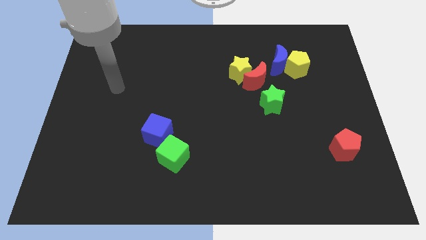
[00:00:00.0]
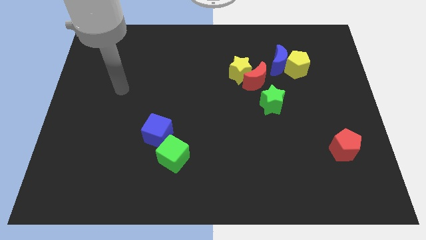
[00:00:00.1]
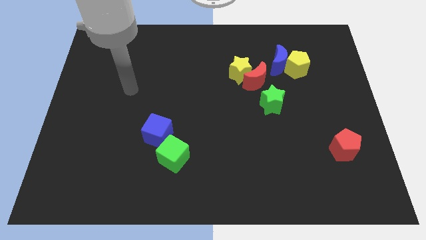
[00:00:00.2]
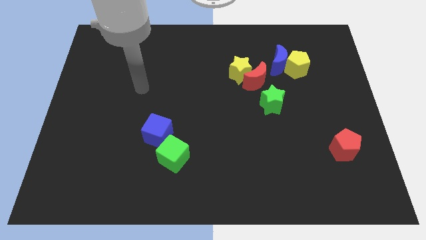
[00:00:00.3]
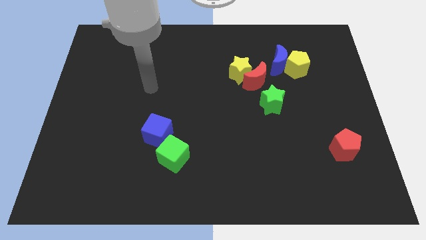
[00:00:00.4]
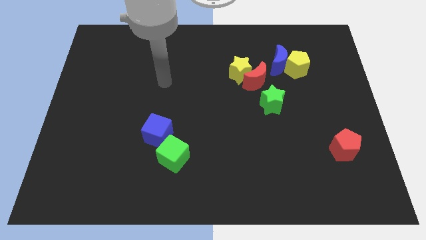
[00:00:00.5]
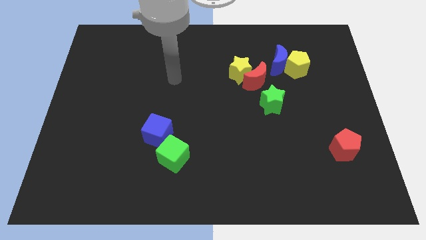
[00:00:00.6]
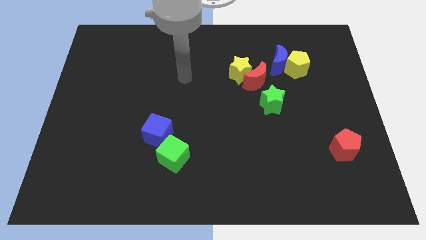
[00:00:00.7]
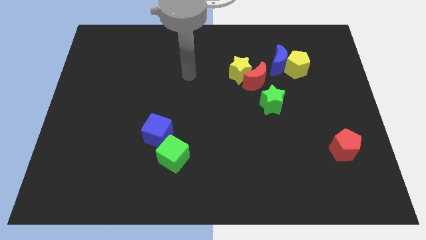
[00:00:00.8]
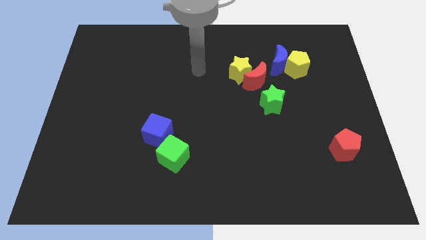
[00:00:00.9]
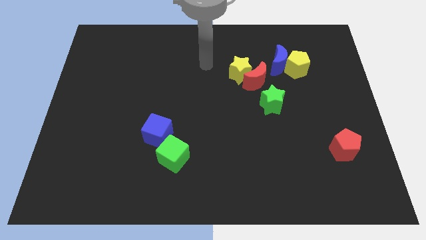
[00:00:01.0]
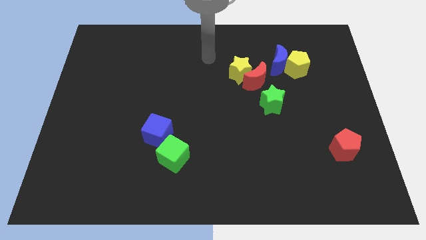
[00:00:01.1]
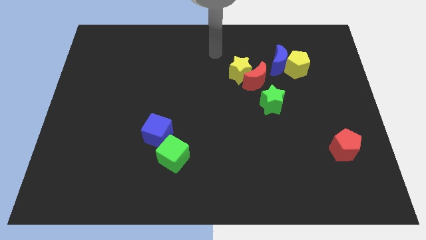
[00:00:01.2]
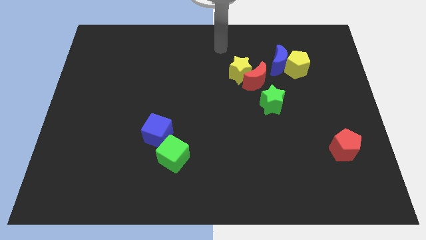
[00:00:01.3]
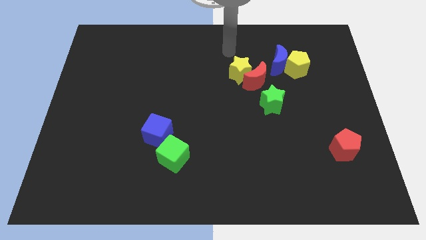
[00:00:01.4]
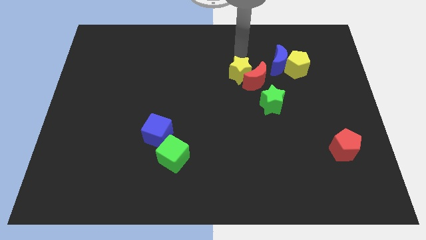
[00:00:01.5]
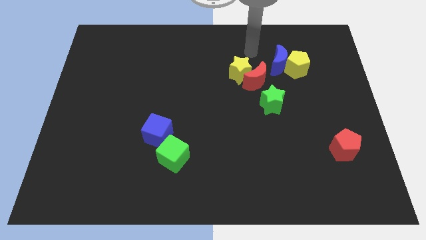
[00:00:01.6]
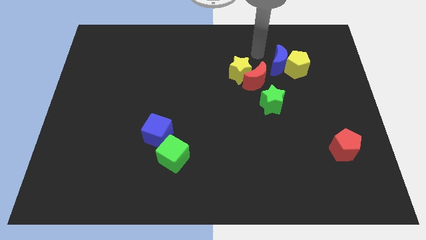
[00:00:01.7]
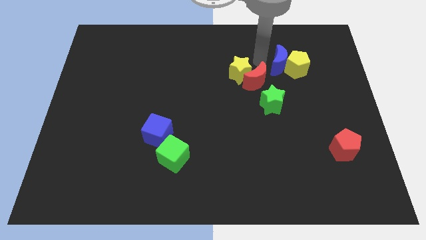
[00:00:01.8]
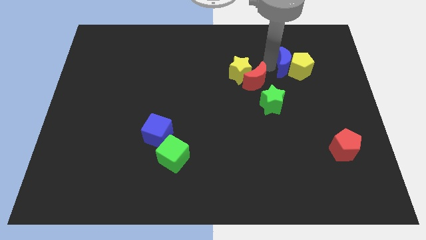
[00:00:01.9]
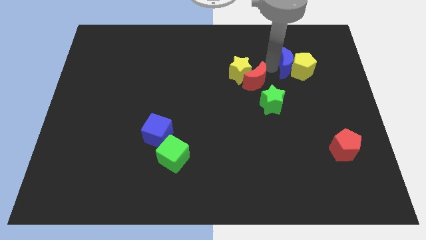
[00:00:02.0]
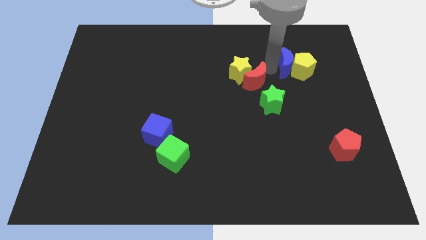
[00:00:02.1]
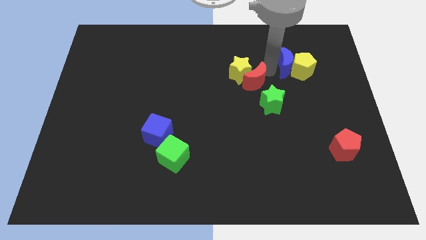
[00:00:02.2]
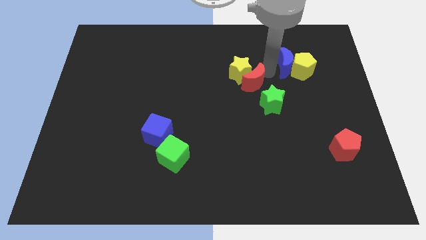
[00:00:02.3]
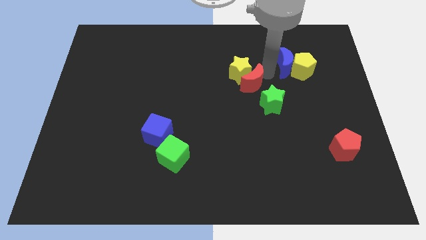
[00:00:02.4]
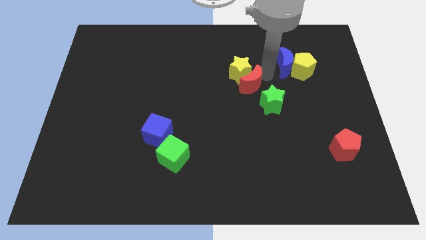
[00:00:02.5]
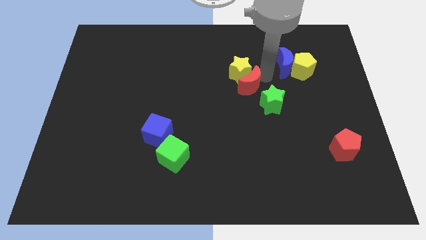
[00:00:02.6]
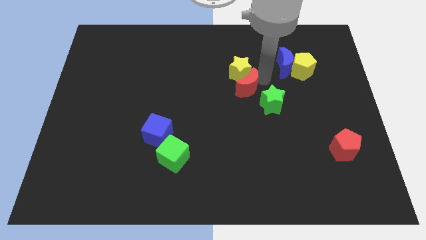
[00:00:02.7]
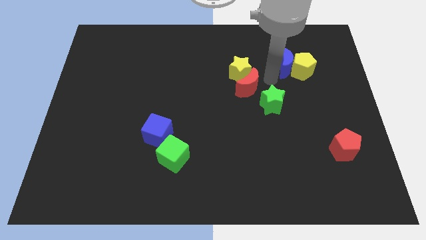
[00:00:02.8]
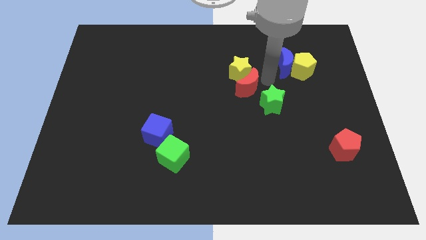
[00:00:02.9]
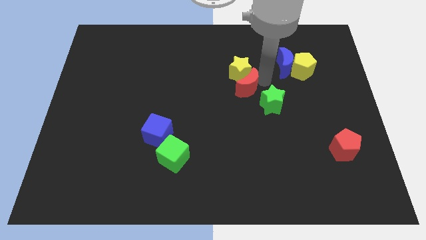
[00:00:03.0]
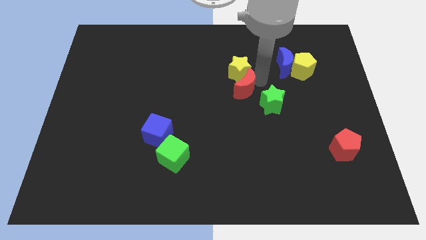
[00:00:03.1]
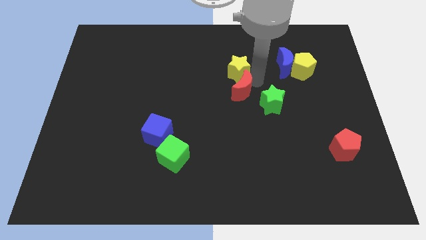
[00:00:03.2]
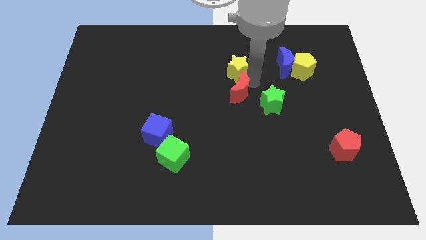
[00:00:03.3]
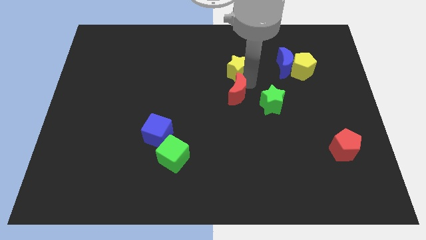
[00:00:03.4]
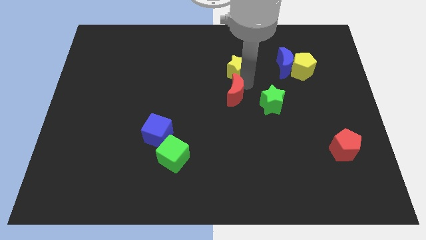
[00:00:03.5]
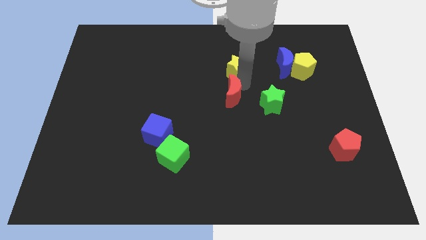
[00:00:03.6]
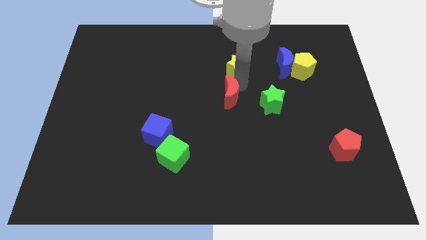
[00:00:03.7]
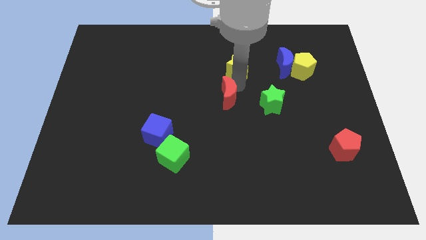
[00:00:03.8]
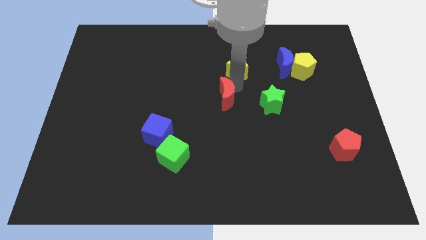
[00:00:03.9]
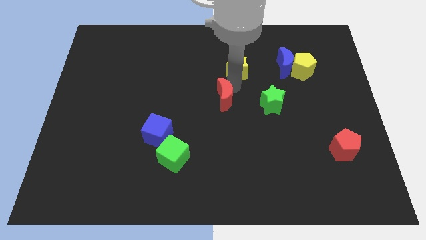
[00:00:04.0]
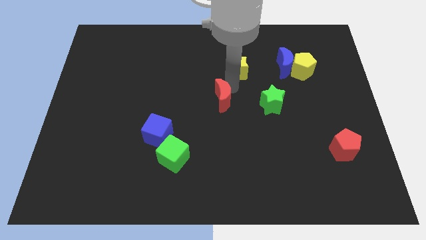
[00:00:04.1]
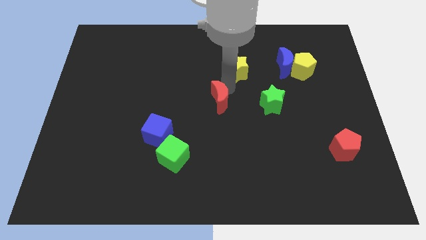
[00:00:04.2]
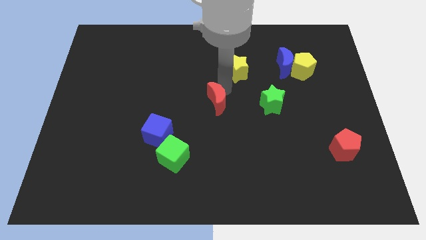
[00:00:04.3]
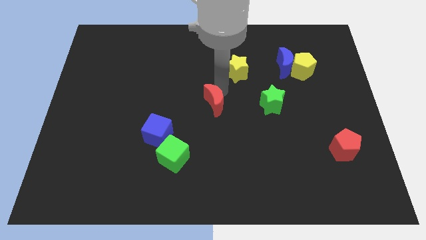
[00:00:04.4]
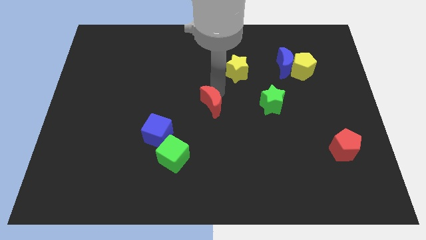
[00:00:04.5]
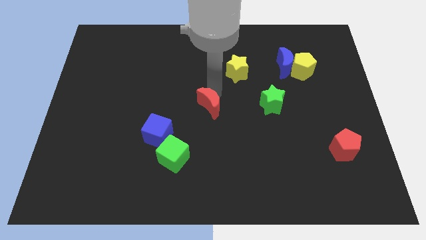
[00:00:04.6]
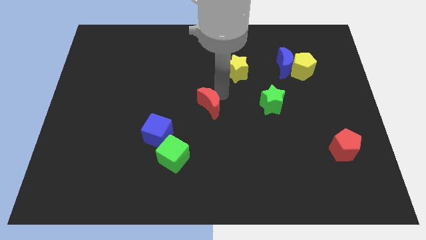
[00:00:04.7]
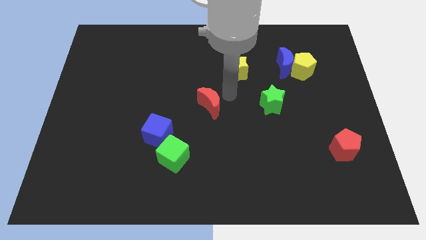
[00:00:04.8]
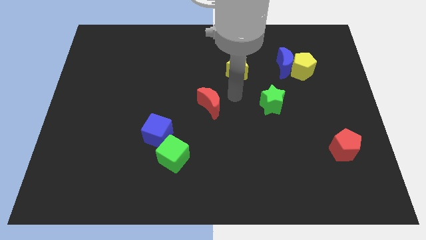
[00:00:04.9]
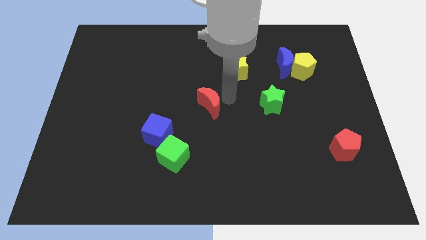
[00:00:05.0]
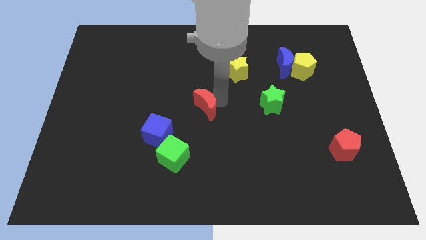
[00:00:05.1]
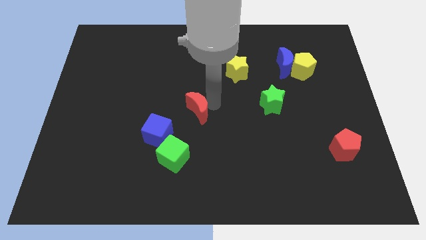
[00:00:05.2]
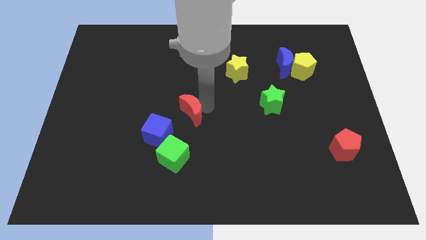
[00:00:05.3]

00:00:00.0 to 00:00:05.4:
push the red moon to the top of the green cube

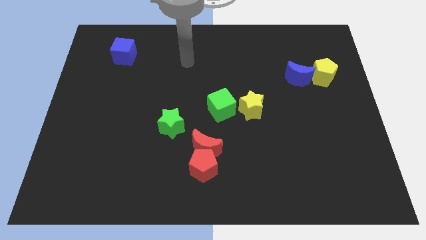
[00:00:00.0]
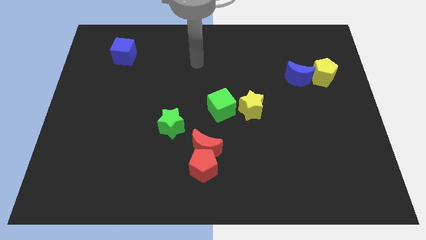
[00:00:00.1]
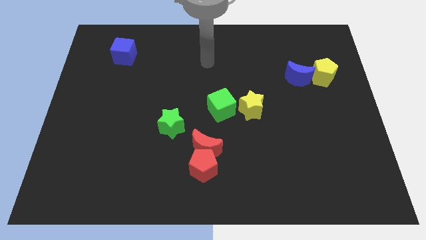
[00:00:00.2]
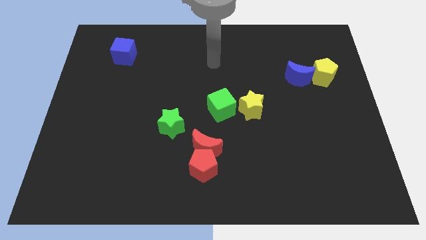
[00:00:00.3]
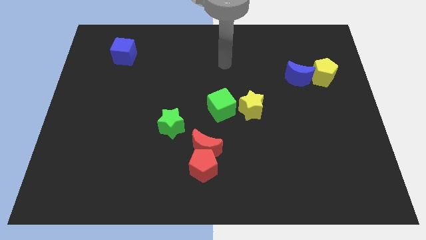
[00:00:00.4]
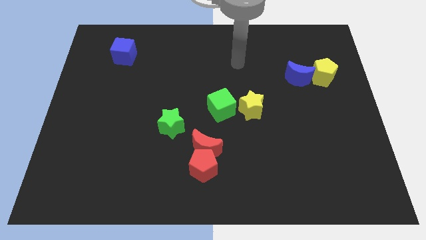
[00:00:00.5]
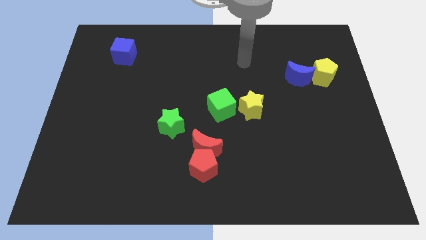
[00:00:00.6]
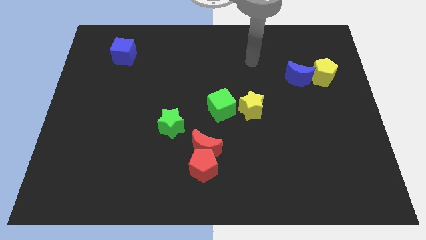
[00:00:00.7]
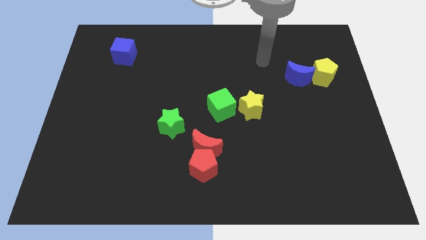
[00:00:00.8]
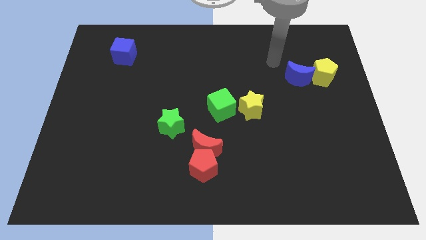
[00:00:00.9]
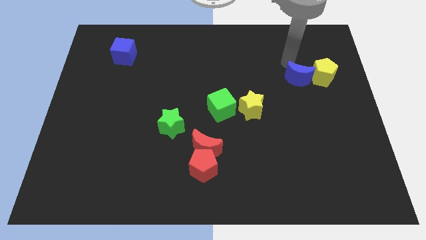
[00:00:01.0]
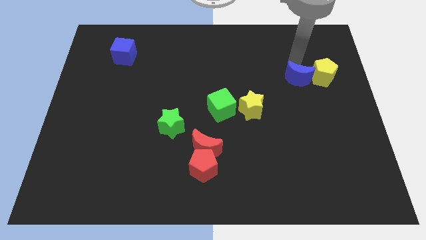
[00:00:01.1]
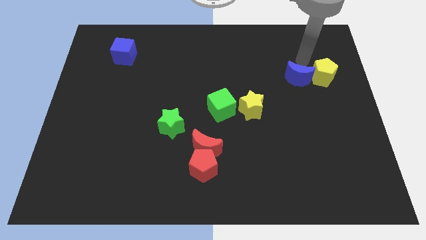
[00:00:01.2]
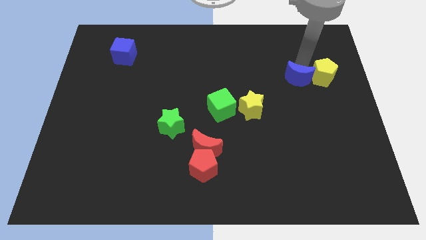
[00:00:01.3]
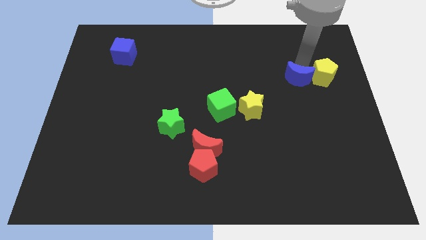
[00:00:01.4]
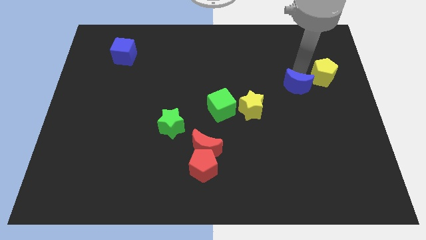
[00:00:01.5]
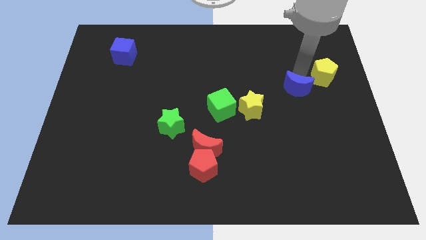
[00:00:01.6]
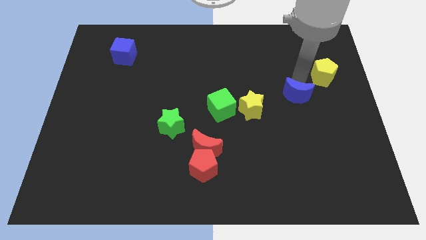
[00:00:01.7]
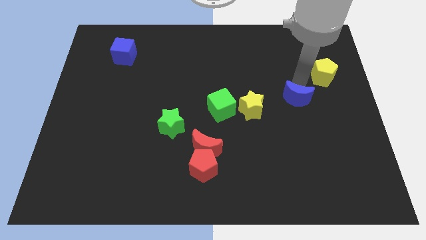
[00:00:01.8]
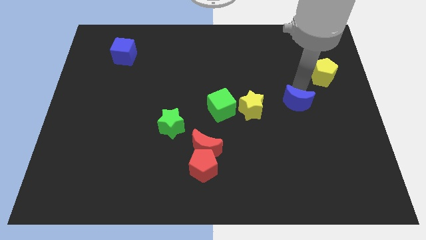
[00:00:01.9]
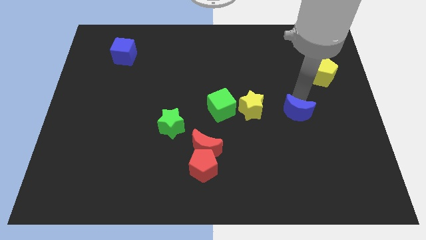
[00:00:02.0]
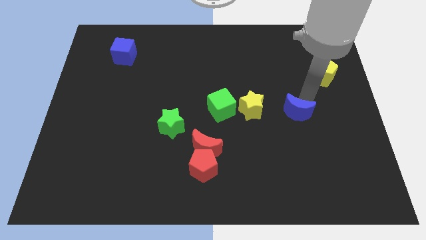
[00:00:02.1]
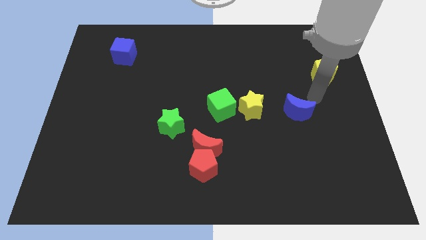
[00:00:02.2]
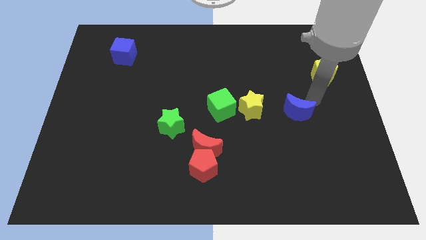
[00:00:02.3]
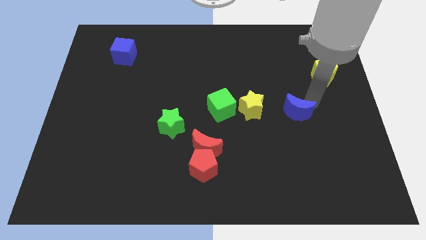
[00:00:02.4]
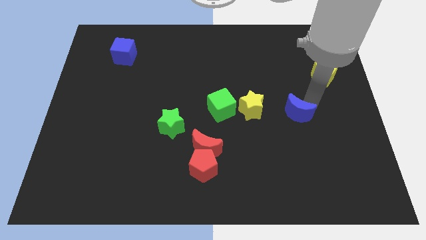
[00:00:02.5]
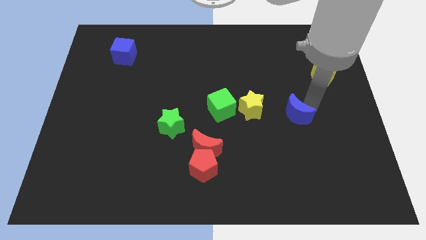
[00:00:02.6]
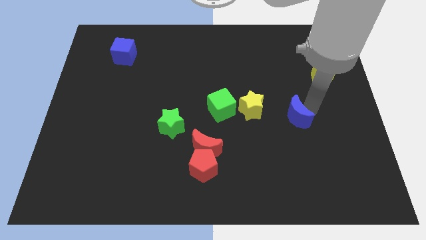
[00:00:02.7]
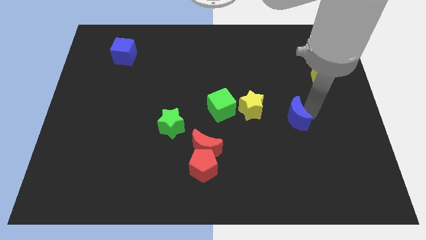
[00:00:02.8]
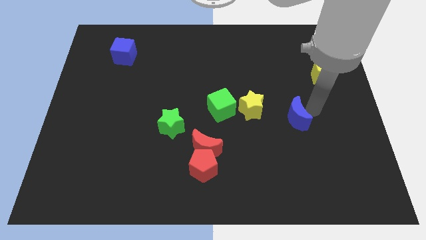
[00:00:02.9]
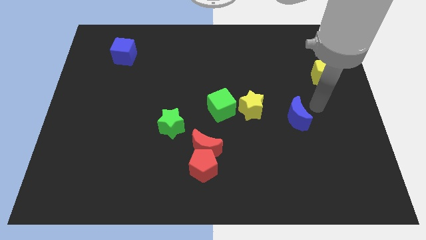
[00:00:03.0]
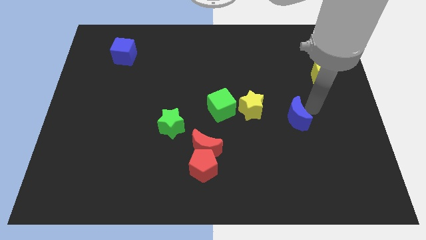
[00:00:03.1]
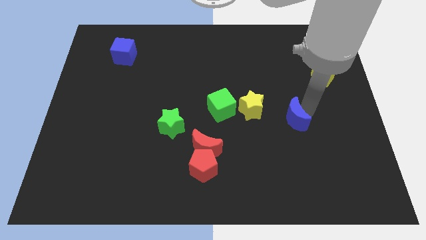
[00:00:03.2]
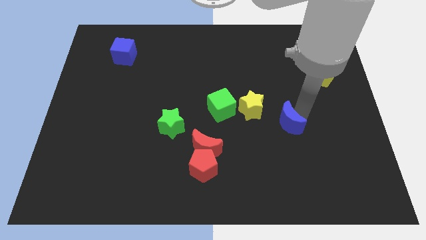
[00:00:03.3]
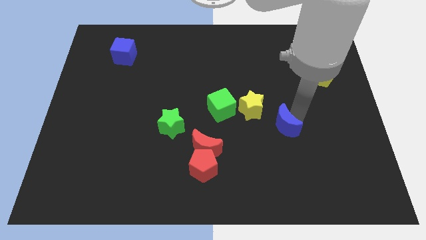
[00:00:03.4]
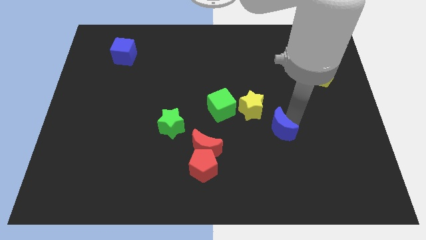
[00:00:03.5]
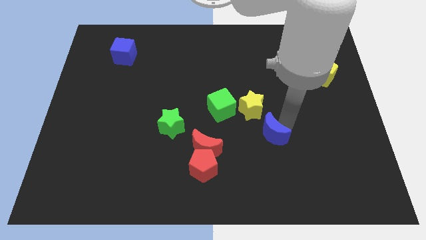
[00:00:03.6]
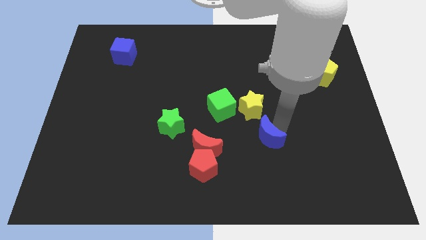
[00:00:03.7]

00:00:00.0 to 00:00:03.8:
slide the blue moon just right of the red moon
